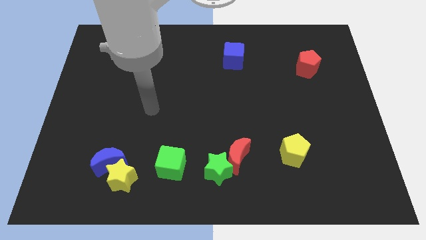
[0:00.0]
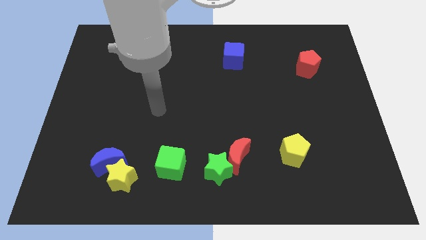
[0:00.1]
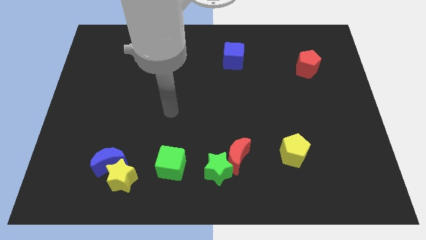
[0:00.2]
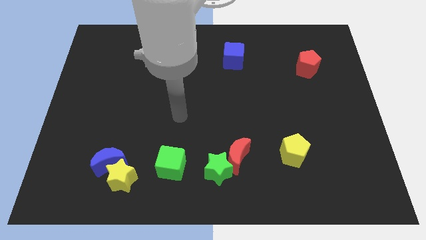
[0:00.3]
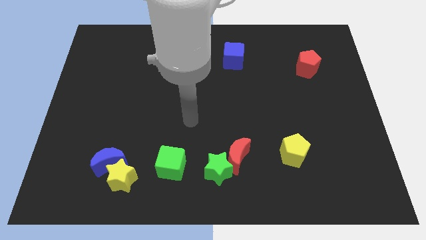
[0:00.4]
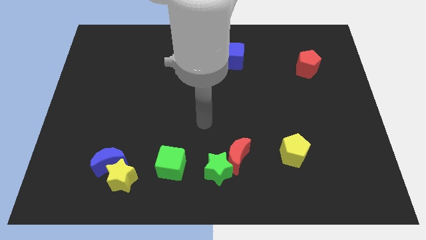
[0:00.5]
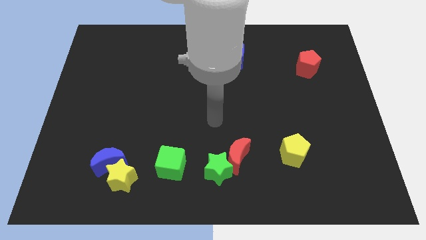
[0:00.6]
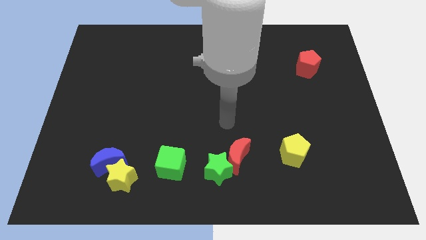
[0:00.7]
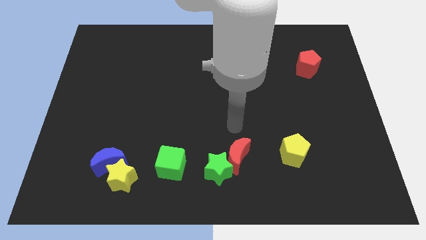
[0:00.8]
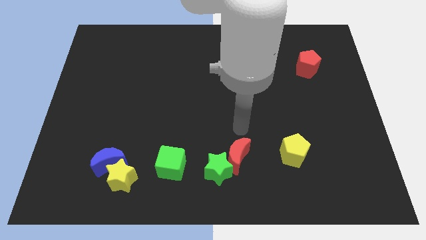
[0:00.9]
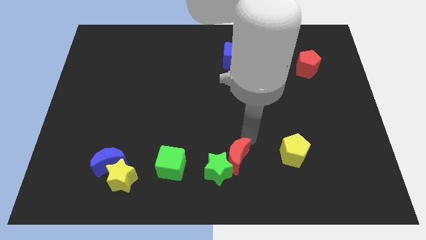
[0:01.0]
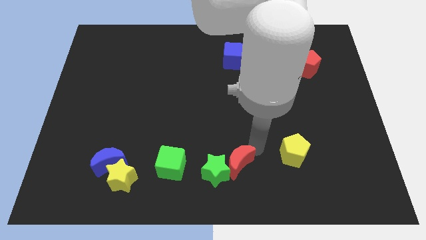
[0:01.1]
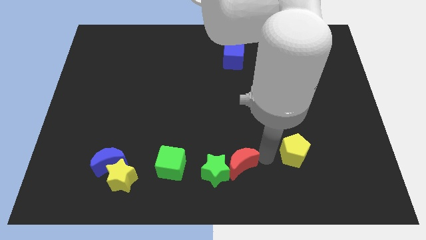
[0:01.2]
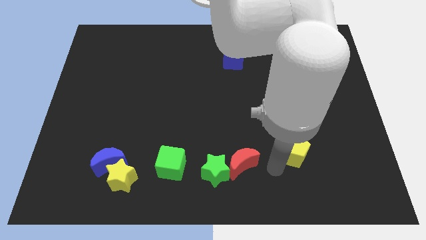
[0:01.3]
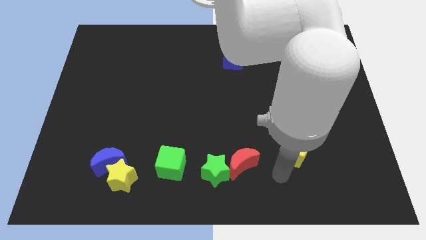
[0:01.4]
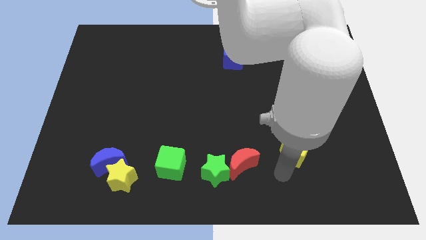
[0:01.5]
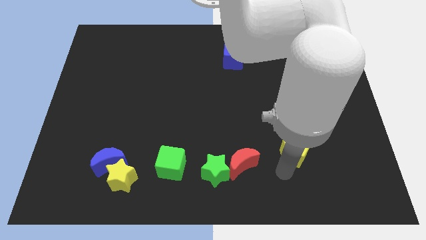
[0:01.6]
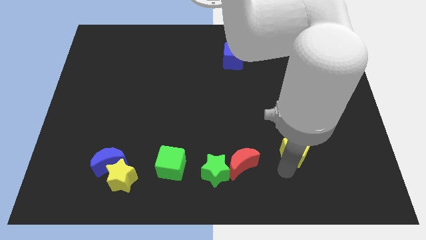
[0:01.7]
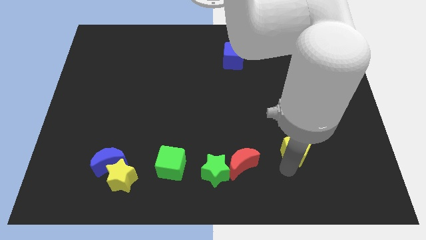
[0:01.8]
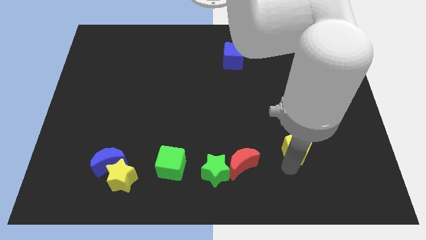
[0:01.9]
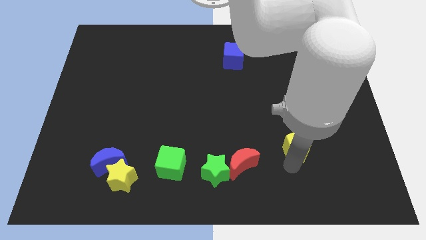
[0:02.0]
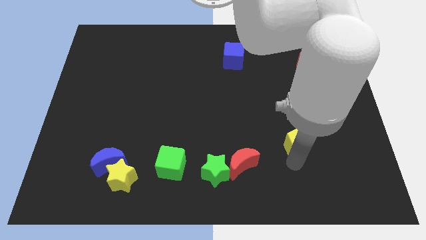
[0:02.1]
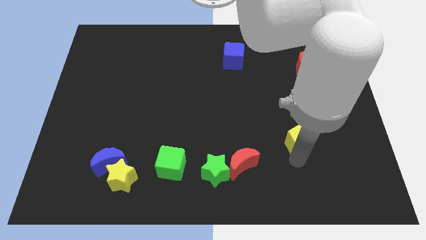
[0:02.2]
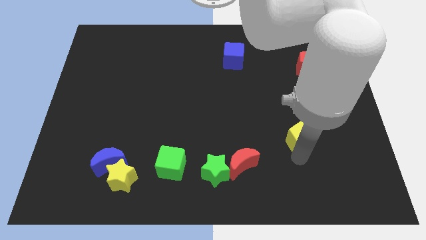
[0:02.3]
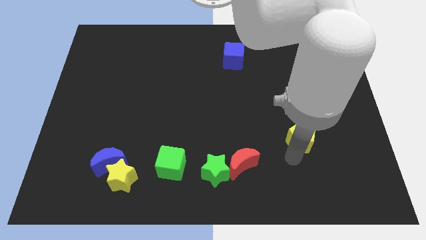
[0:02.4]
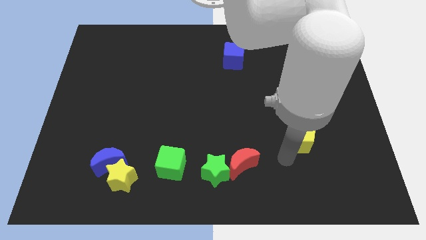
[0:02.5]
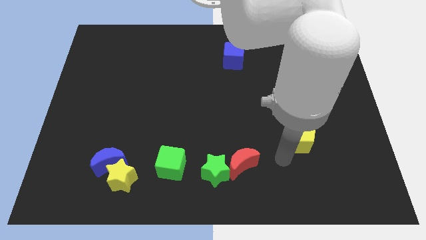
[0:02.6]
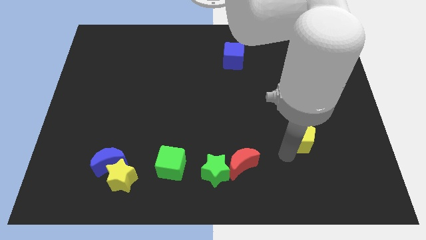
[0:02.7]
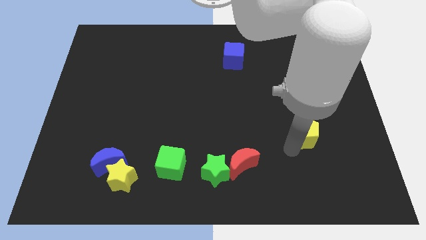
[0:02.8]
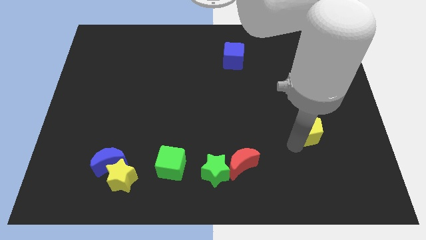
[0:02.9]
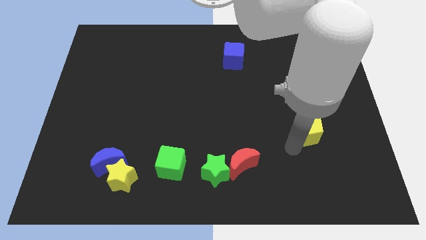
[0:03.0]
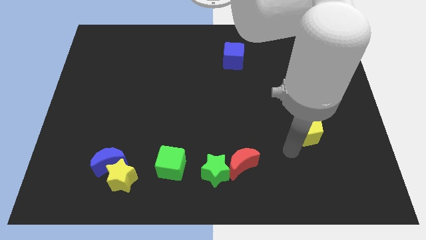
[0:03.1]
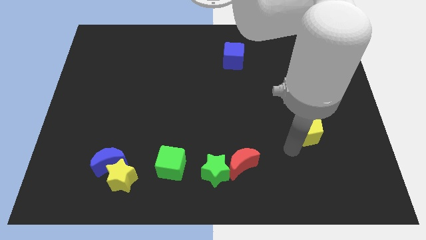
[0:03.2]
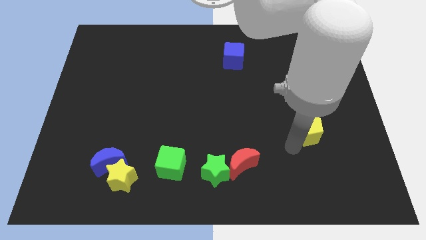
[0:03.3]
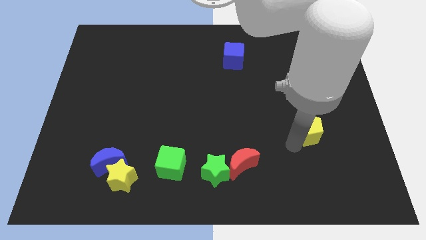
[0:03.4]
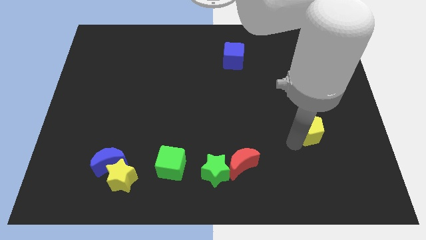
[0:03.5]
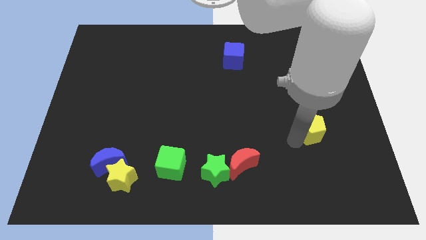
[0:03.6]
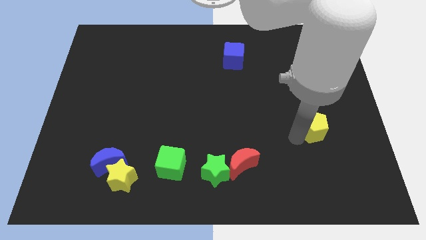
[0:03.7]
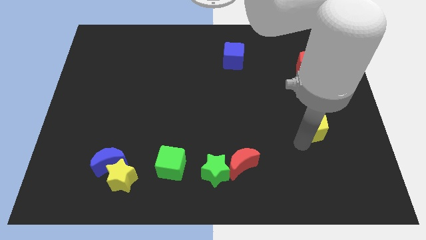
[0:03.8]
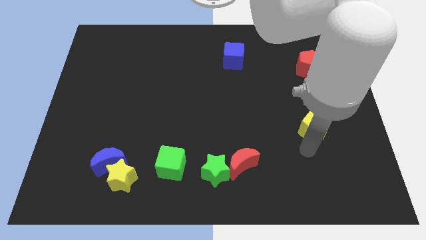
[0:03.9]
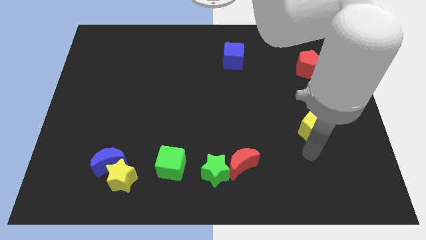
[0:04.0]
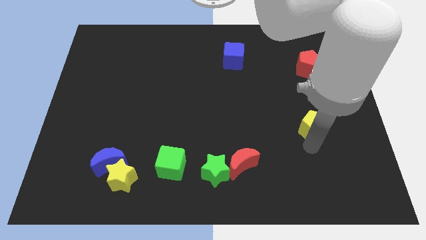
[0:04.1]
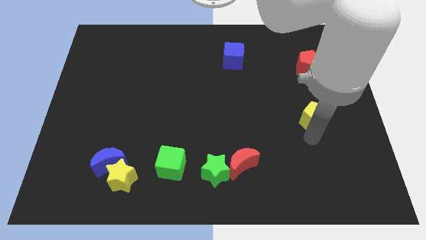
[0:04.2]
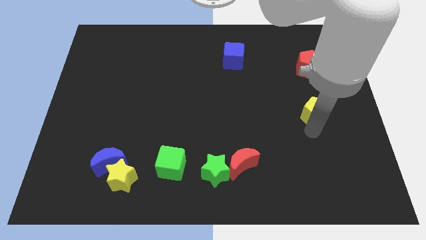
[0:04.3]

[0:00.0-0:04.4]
move the yellow pentagon to the bottom side of the red pentagon

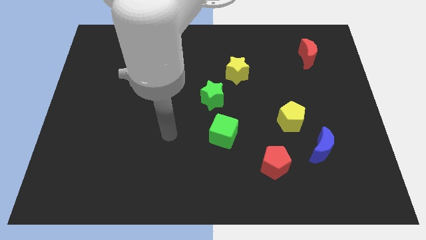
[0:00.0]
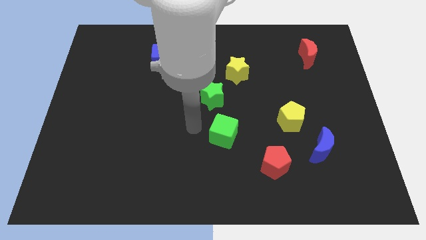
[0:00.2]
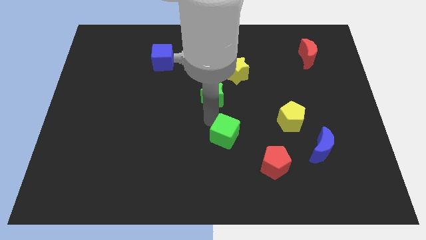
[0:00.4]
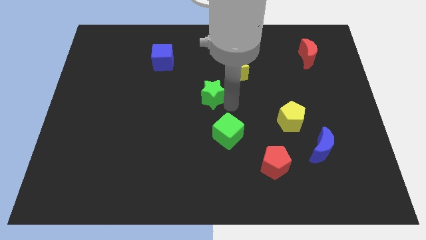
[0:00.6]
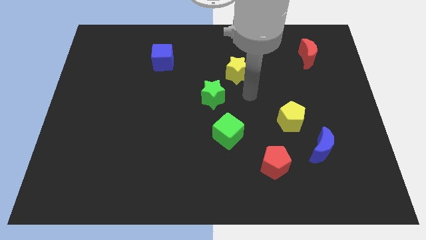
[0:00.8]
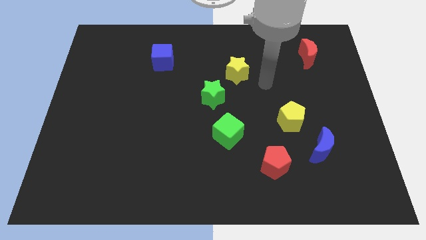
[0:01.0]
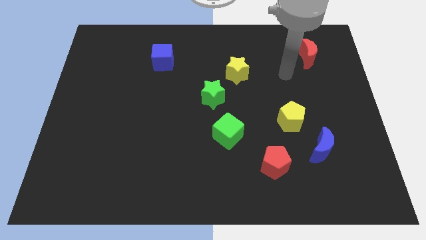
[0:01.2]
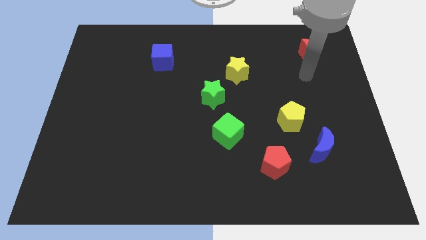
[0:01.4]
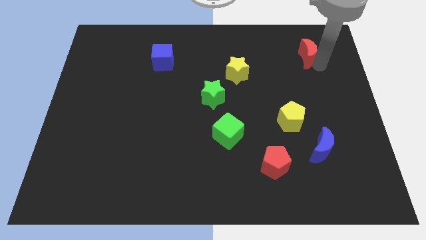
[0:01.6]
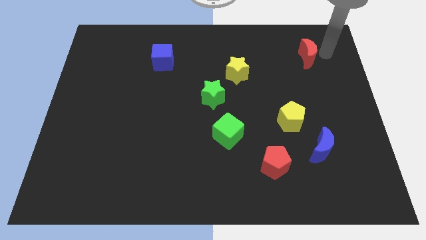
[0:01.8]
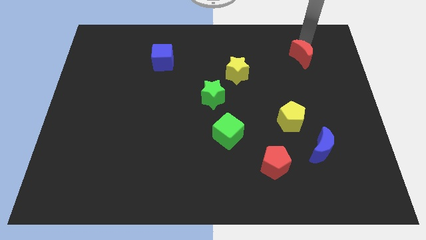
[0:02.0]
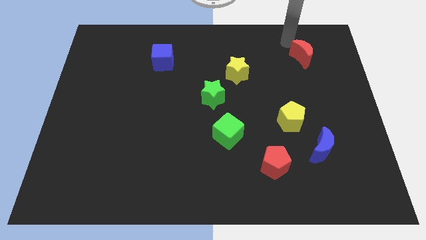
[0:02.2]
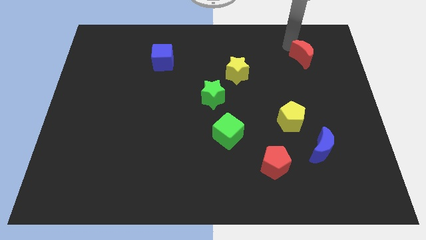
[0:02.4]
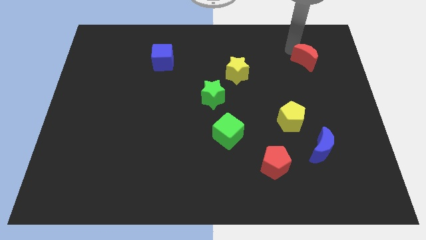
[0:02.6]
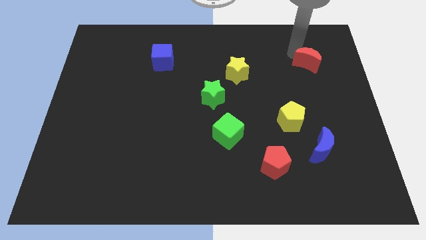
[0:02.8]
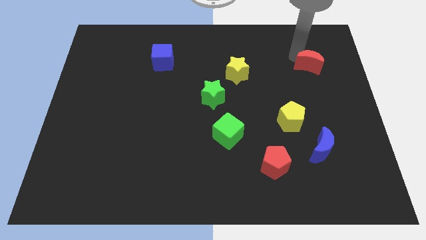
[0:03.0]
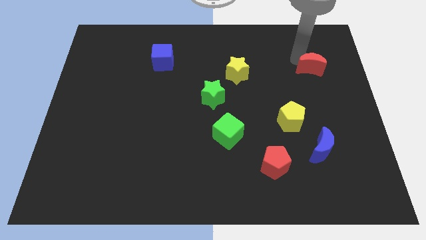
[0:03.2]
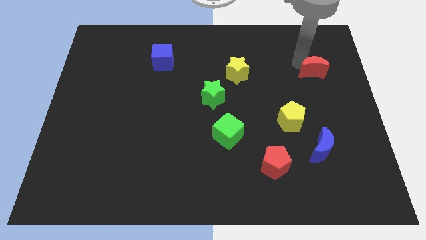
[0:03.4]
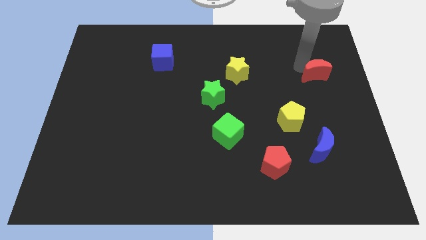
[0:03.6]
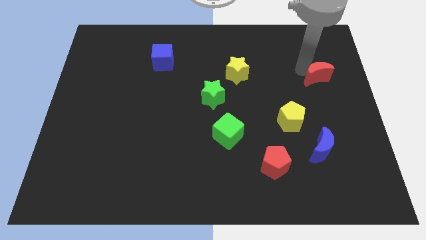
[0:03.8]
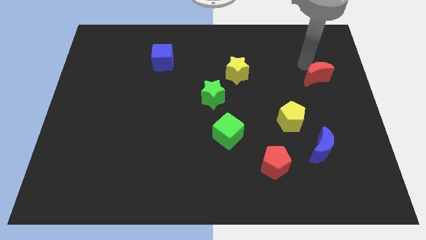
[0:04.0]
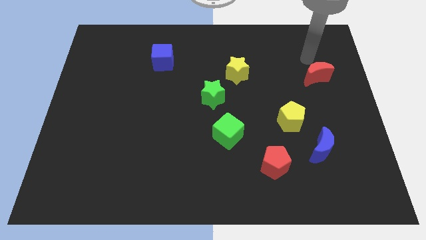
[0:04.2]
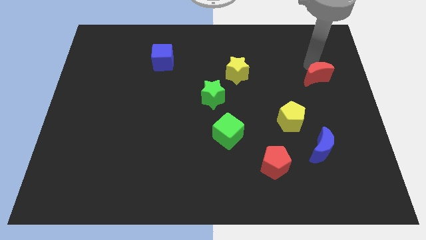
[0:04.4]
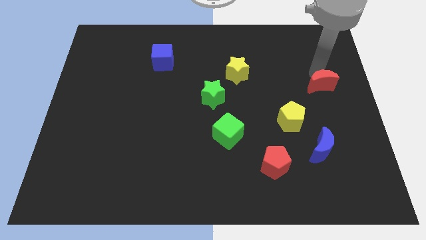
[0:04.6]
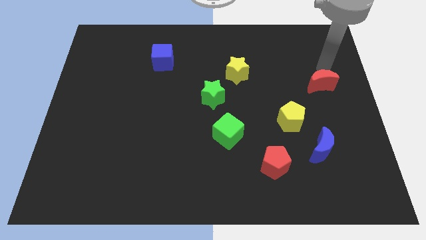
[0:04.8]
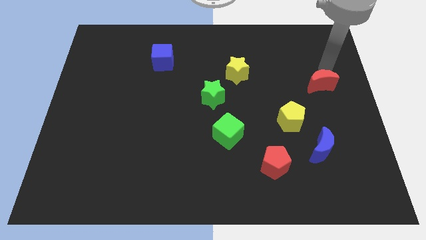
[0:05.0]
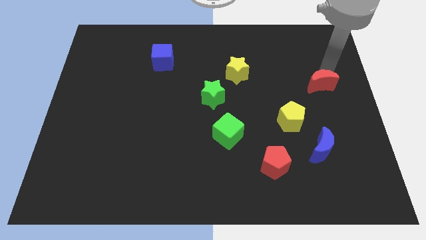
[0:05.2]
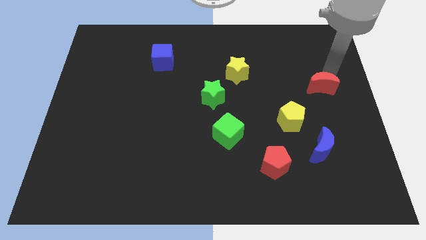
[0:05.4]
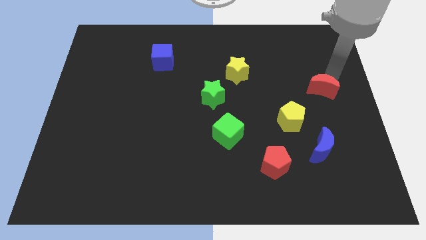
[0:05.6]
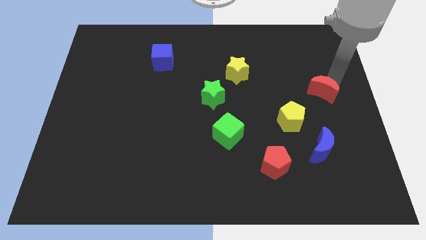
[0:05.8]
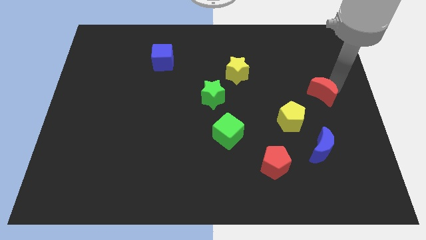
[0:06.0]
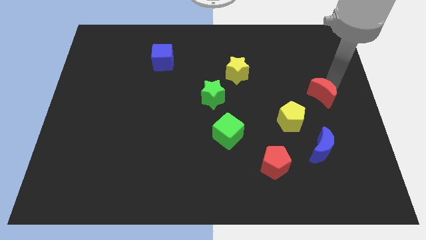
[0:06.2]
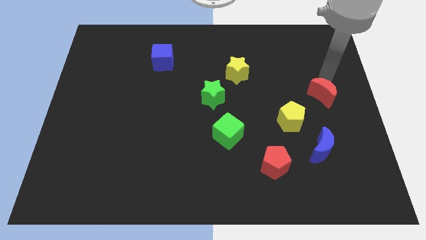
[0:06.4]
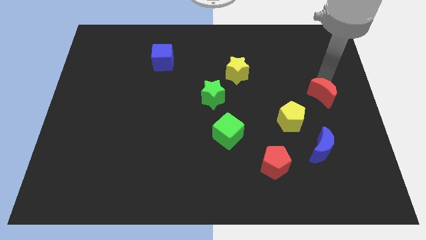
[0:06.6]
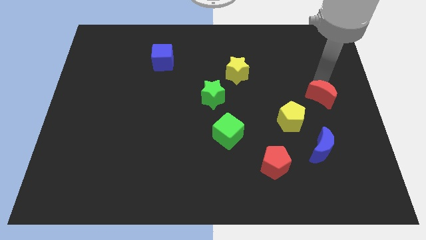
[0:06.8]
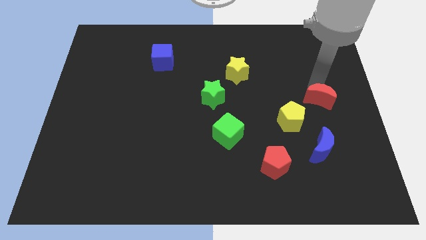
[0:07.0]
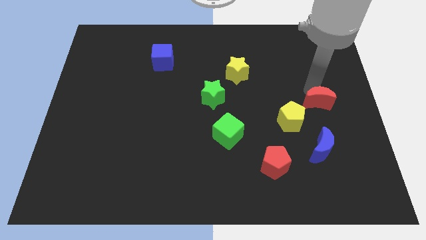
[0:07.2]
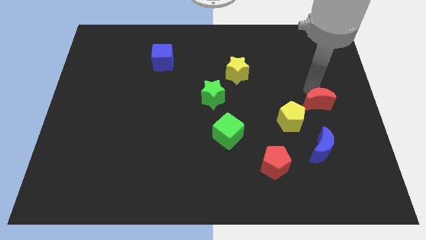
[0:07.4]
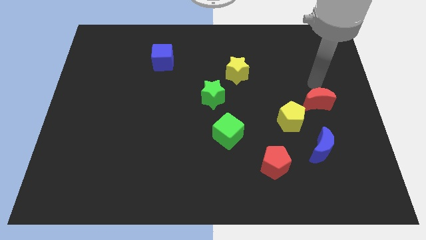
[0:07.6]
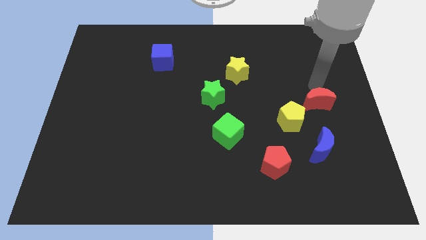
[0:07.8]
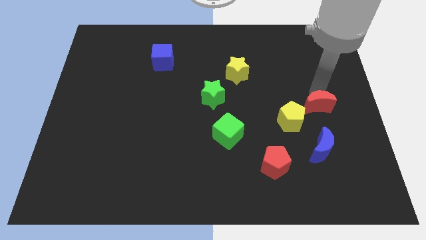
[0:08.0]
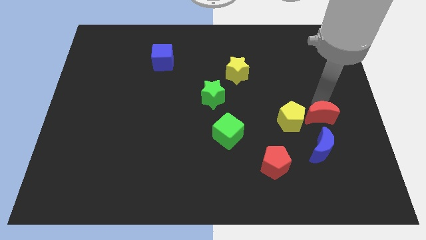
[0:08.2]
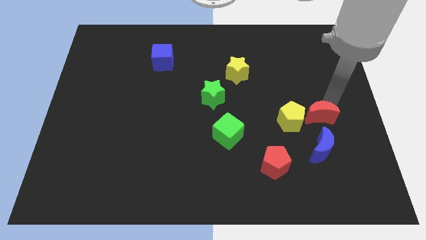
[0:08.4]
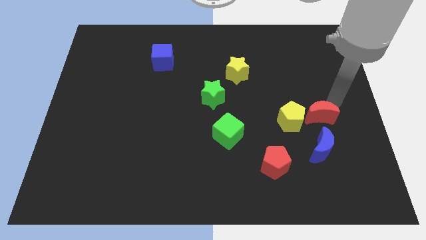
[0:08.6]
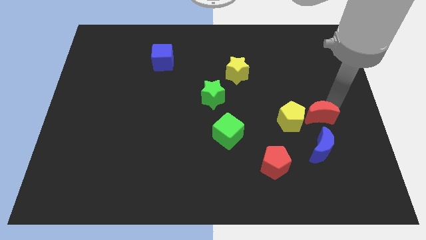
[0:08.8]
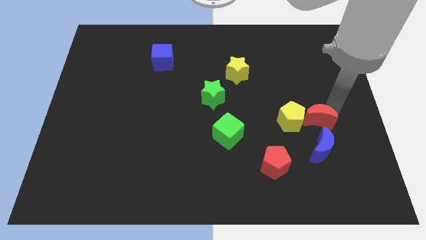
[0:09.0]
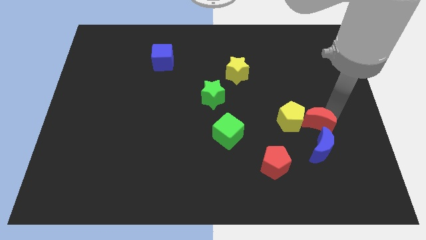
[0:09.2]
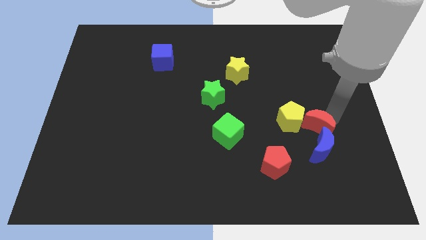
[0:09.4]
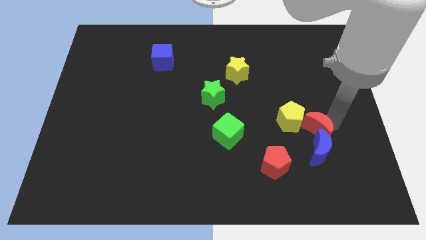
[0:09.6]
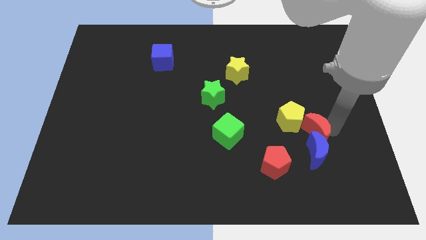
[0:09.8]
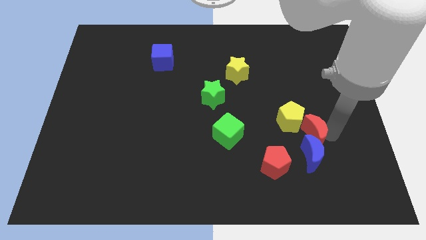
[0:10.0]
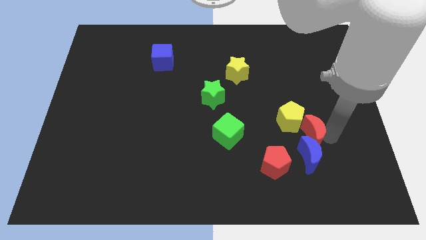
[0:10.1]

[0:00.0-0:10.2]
push the red moon below the yellow pentagon
